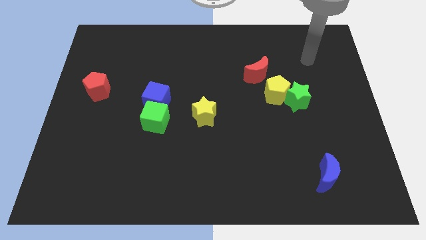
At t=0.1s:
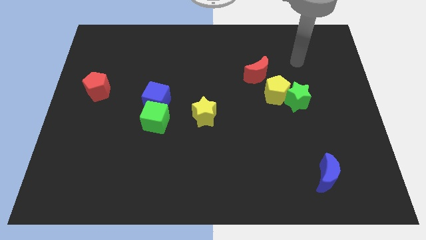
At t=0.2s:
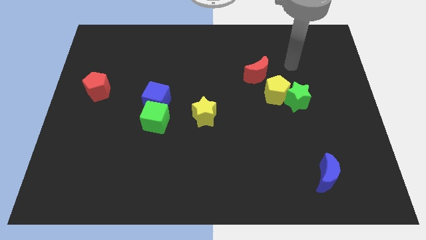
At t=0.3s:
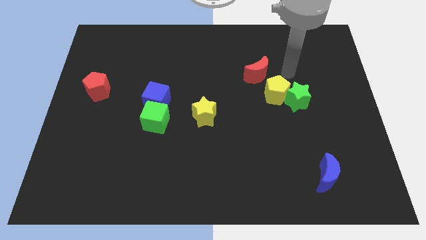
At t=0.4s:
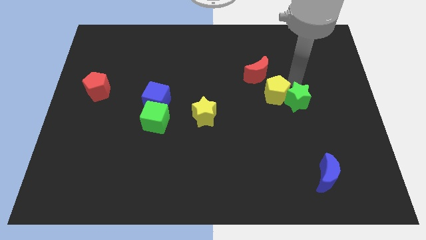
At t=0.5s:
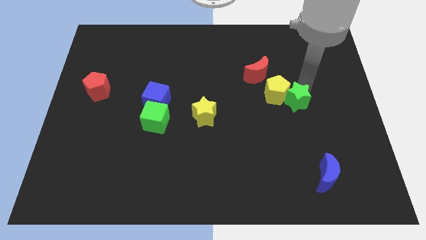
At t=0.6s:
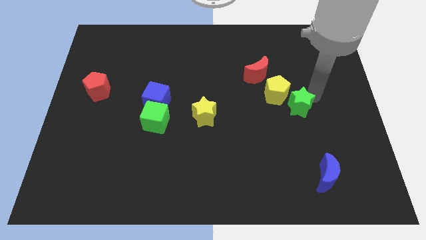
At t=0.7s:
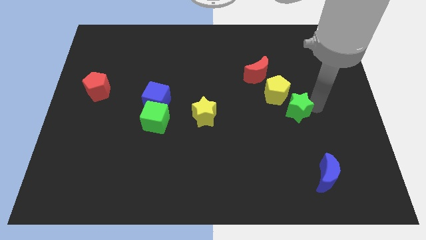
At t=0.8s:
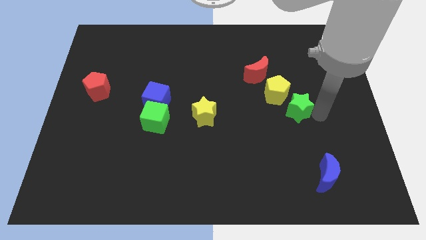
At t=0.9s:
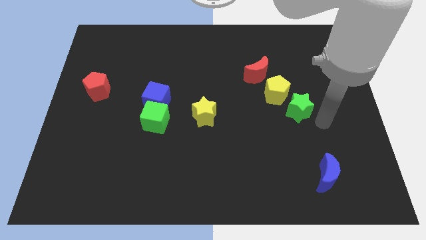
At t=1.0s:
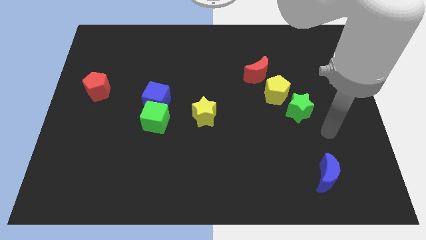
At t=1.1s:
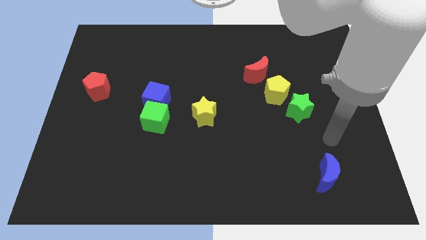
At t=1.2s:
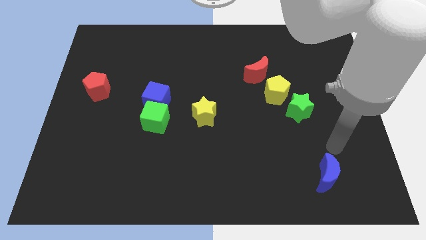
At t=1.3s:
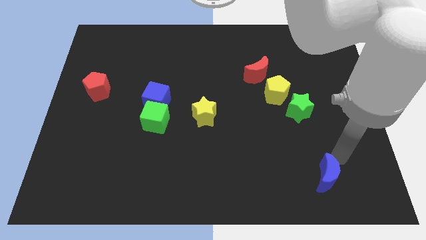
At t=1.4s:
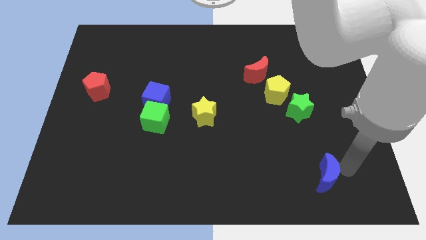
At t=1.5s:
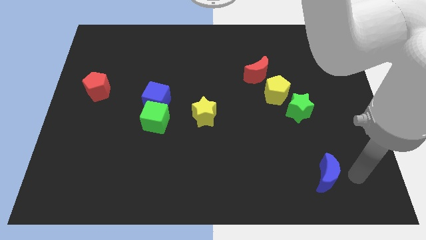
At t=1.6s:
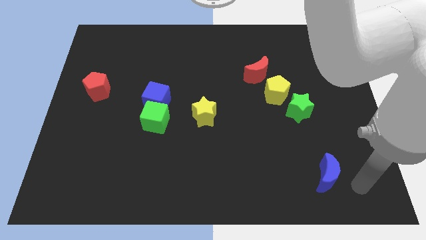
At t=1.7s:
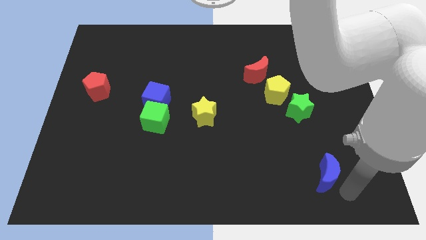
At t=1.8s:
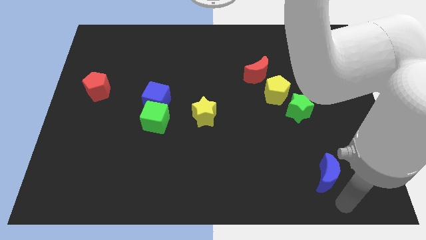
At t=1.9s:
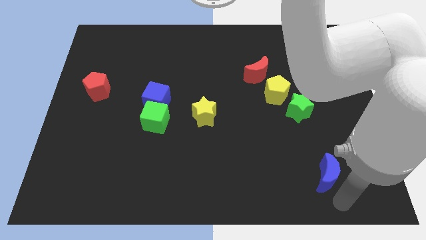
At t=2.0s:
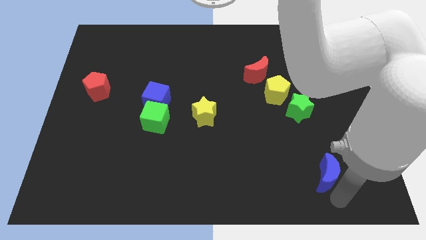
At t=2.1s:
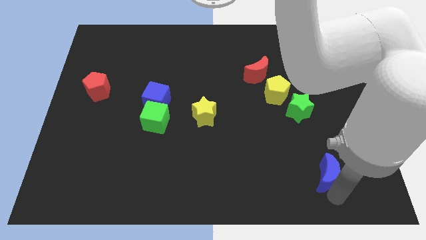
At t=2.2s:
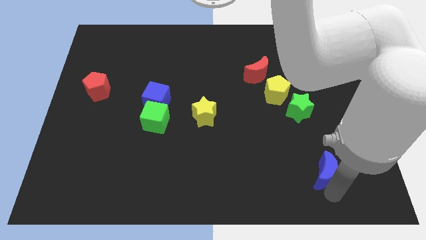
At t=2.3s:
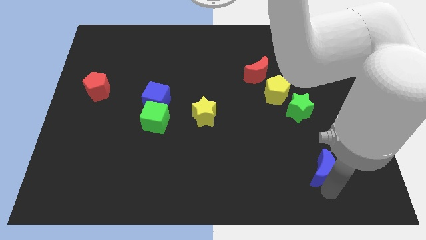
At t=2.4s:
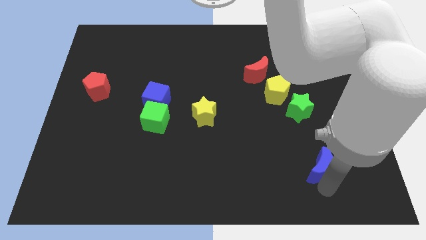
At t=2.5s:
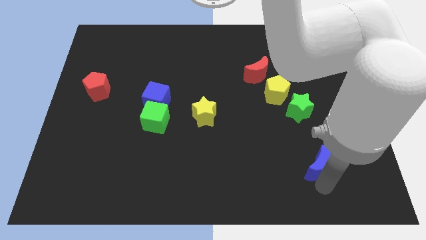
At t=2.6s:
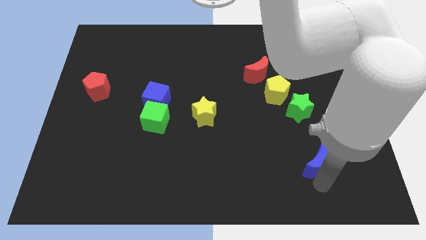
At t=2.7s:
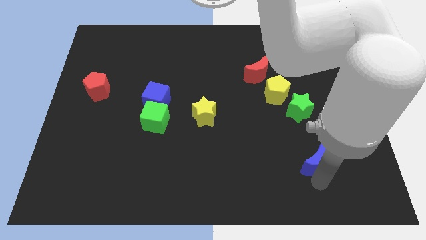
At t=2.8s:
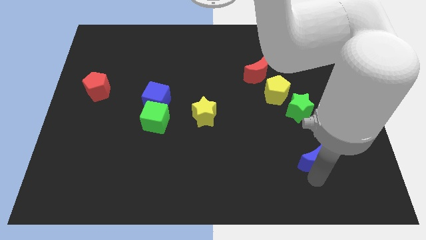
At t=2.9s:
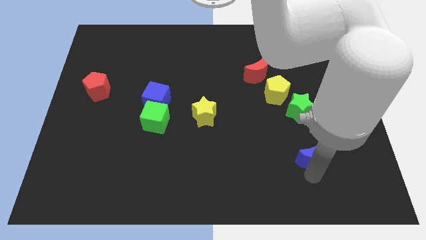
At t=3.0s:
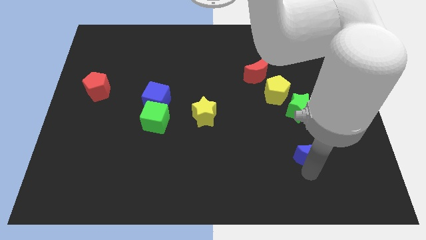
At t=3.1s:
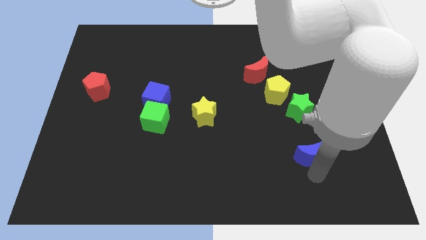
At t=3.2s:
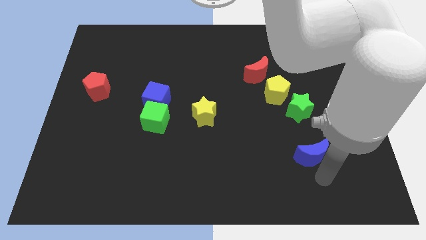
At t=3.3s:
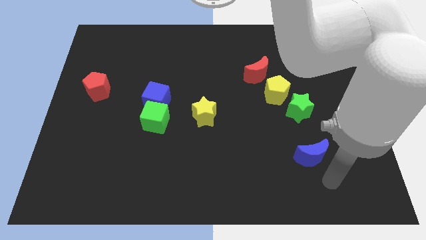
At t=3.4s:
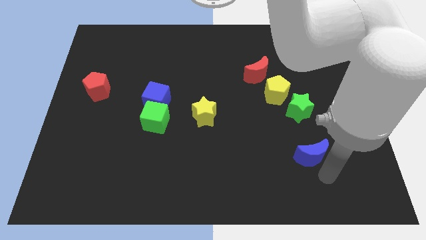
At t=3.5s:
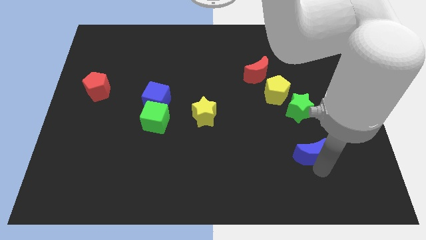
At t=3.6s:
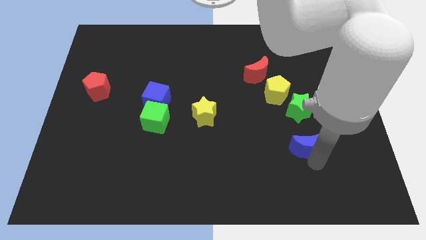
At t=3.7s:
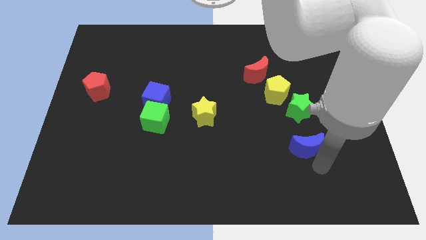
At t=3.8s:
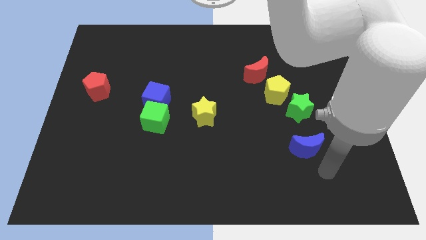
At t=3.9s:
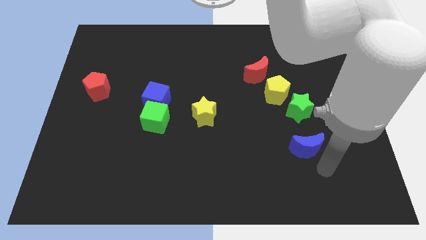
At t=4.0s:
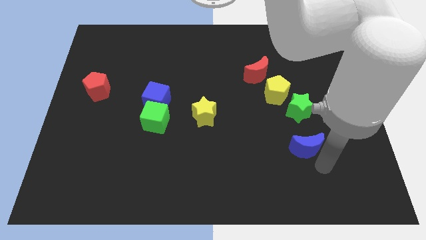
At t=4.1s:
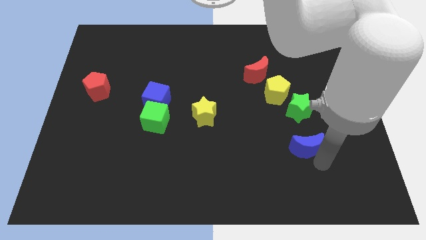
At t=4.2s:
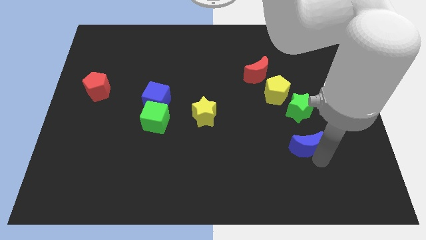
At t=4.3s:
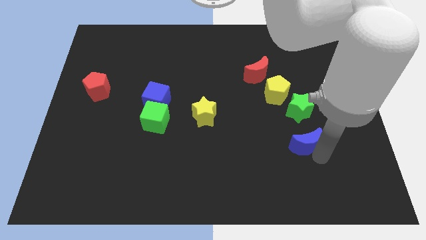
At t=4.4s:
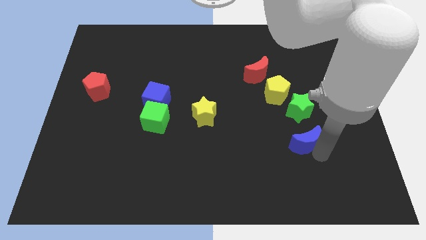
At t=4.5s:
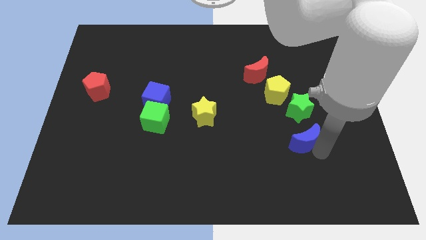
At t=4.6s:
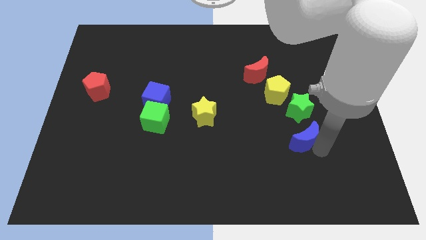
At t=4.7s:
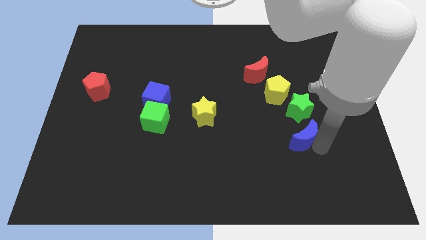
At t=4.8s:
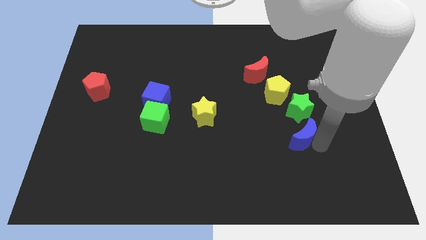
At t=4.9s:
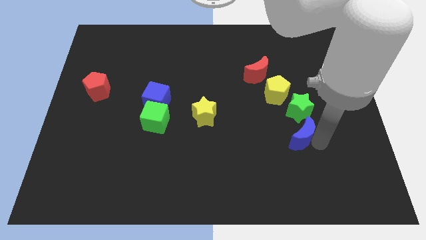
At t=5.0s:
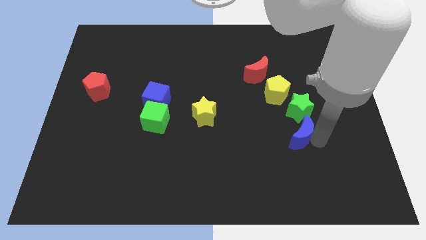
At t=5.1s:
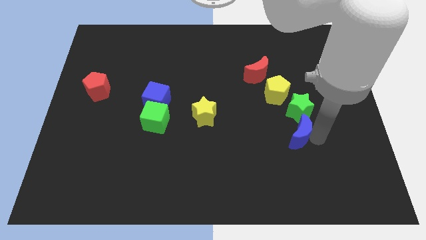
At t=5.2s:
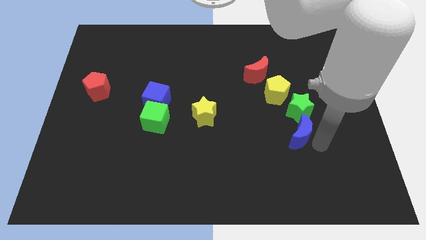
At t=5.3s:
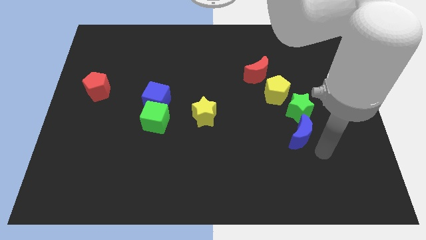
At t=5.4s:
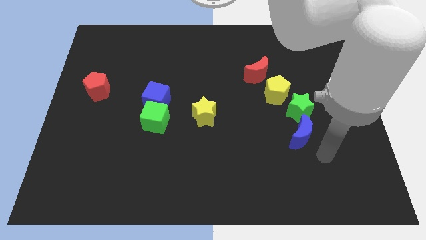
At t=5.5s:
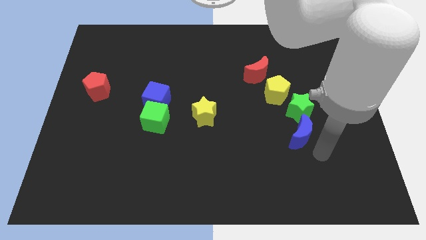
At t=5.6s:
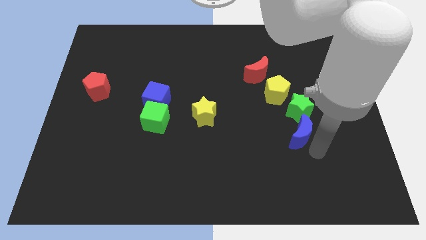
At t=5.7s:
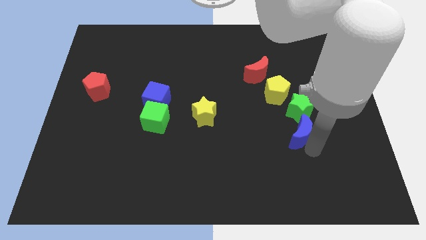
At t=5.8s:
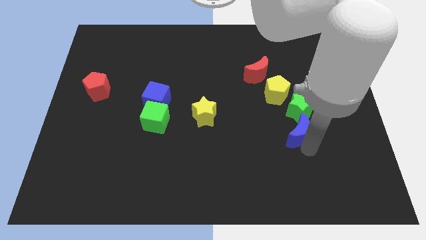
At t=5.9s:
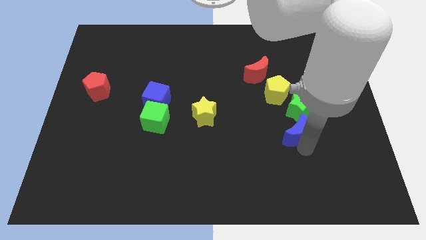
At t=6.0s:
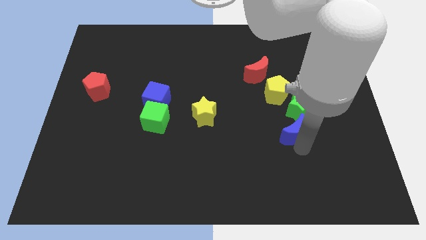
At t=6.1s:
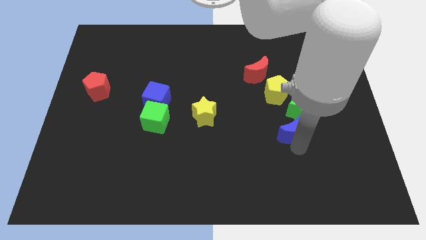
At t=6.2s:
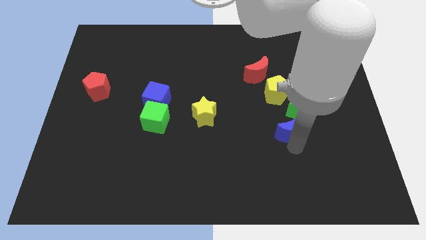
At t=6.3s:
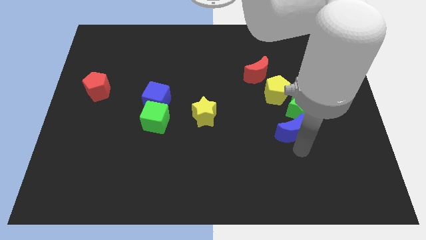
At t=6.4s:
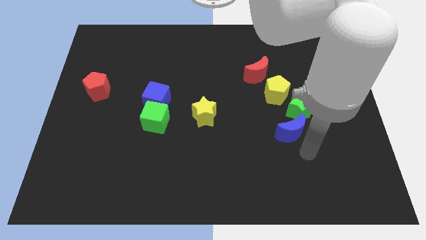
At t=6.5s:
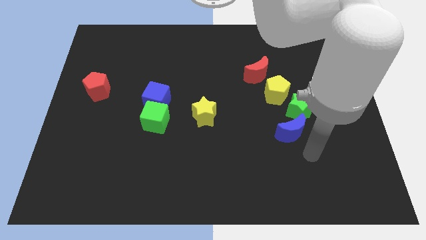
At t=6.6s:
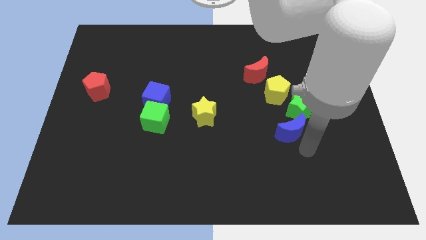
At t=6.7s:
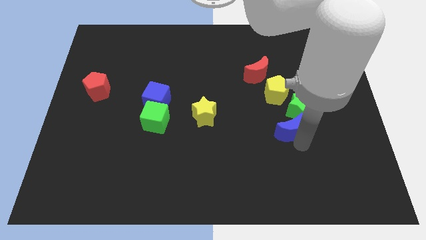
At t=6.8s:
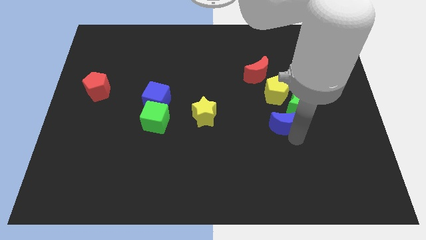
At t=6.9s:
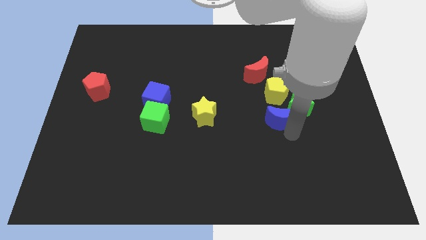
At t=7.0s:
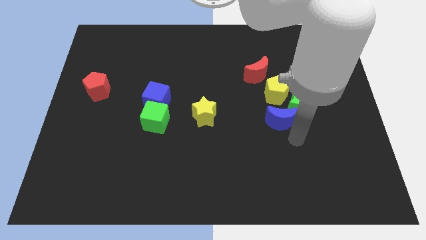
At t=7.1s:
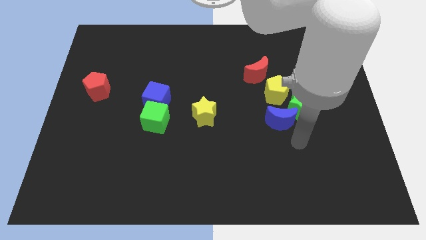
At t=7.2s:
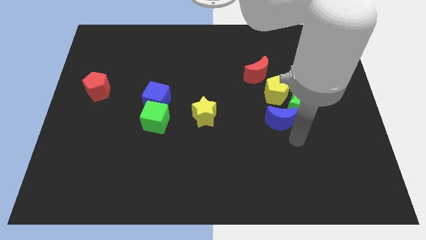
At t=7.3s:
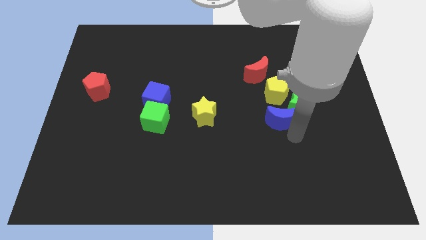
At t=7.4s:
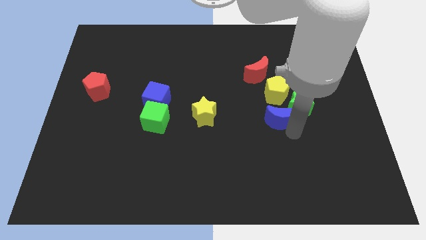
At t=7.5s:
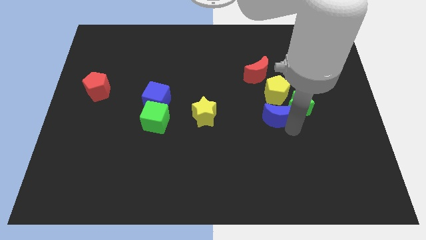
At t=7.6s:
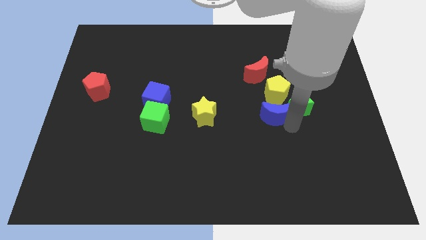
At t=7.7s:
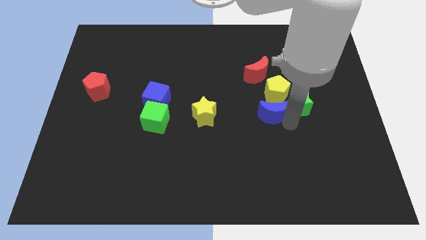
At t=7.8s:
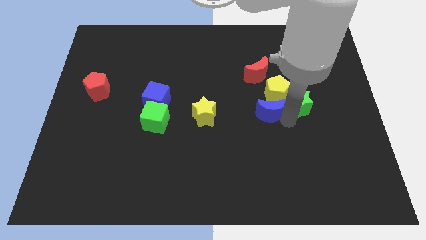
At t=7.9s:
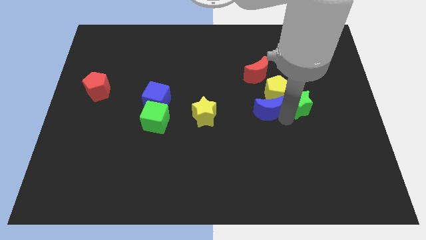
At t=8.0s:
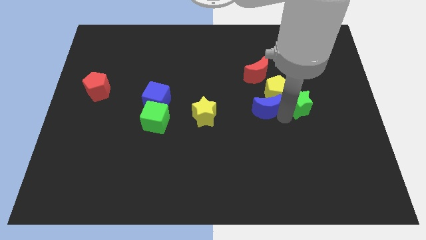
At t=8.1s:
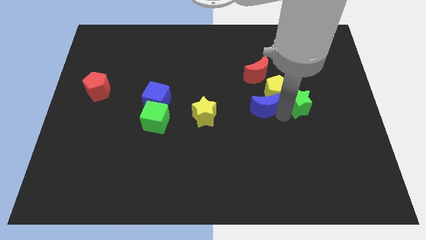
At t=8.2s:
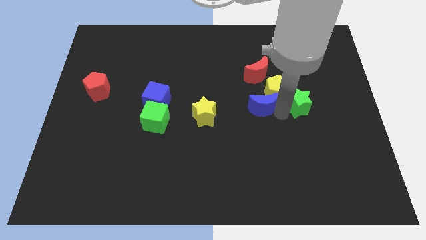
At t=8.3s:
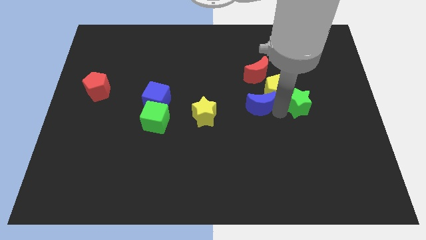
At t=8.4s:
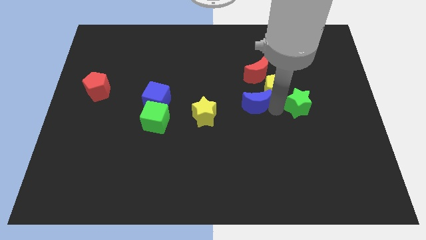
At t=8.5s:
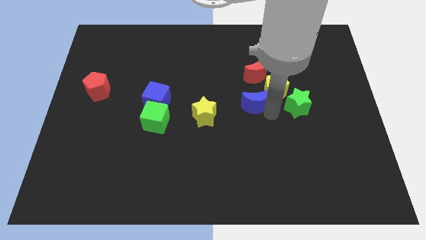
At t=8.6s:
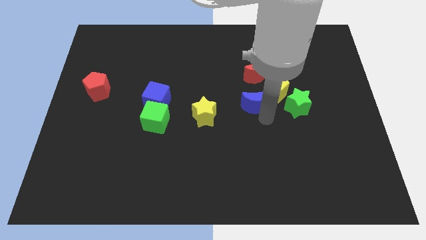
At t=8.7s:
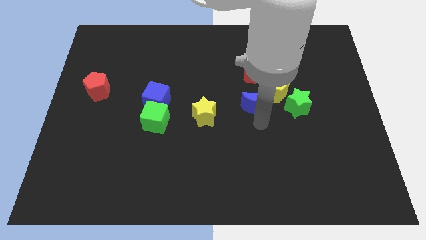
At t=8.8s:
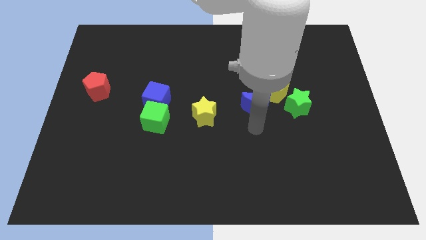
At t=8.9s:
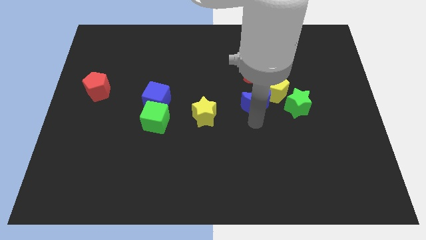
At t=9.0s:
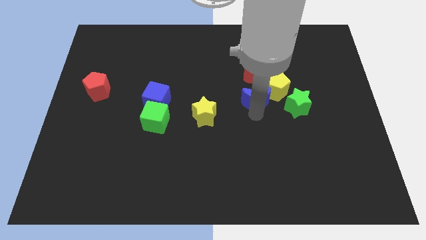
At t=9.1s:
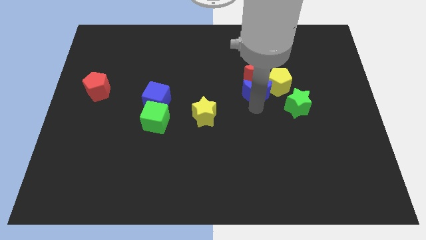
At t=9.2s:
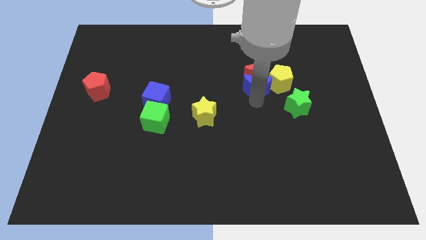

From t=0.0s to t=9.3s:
put the blue moon next to the red moon
